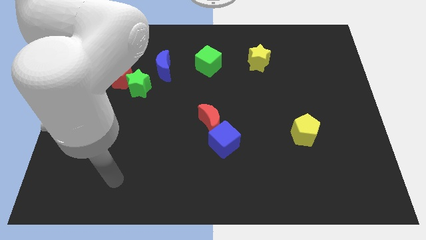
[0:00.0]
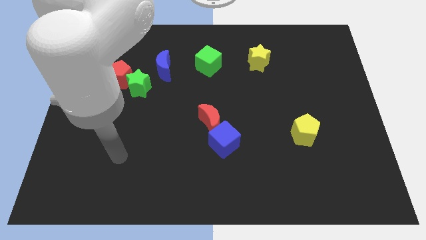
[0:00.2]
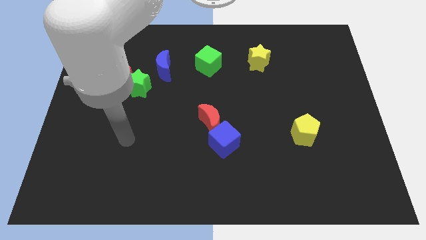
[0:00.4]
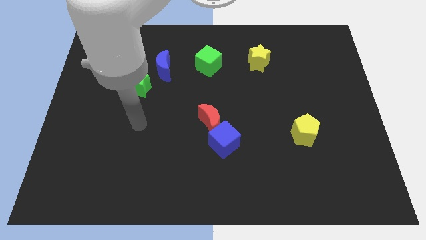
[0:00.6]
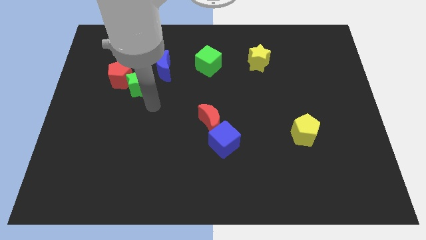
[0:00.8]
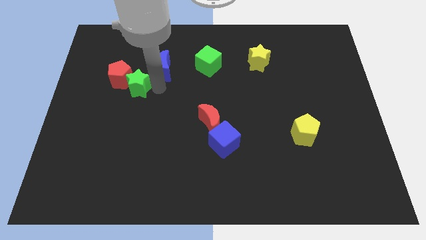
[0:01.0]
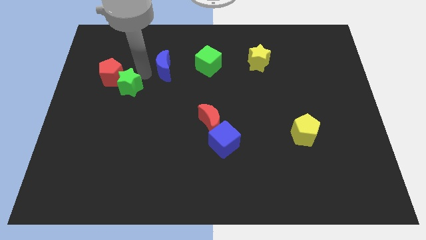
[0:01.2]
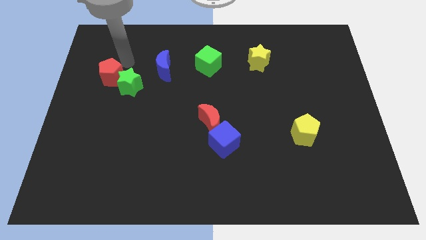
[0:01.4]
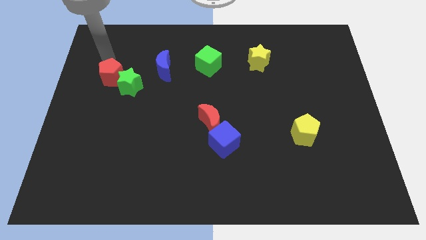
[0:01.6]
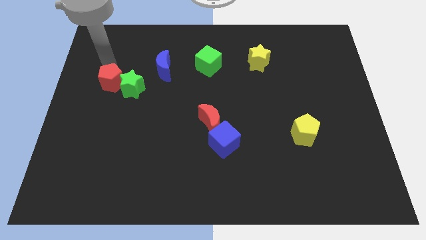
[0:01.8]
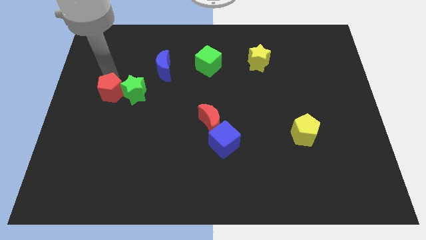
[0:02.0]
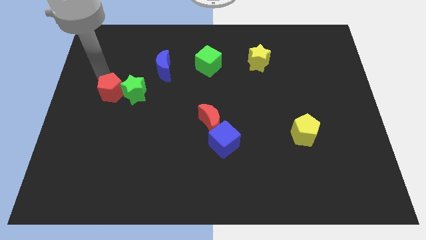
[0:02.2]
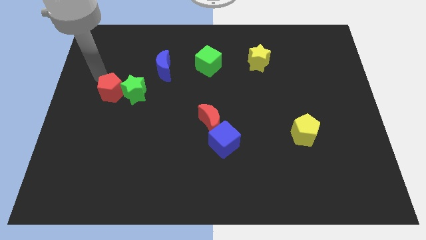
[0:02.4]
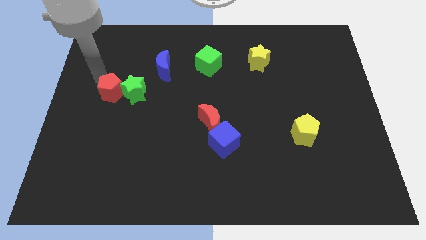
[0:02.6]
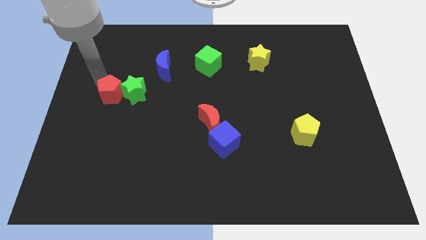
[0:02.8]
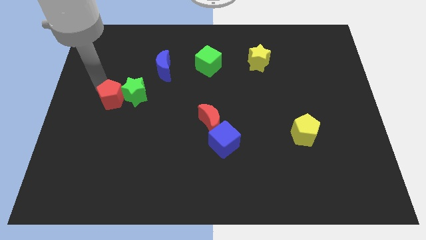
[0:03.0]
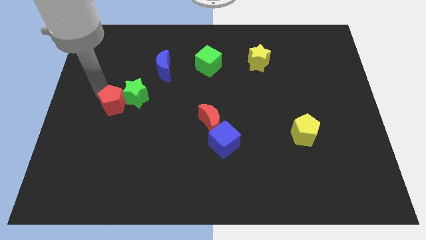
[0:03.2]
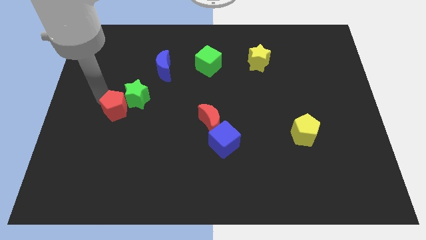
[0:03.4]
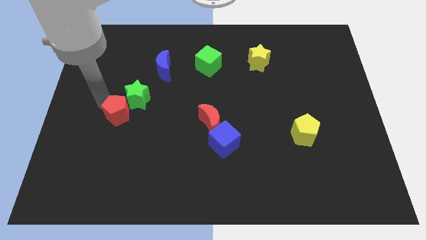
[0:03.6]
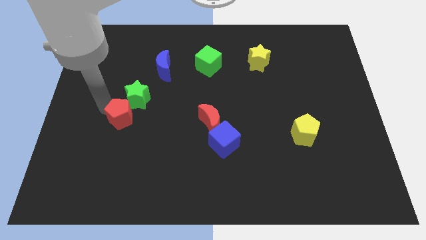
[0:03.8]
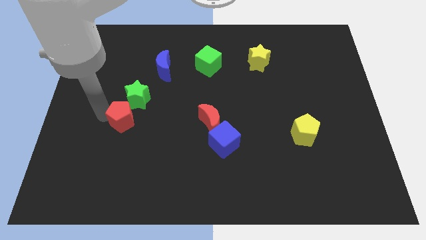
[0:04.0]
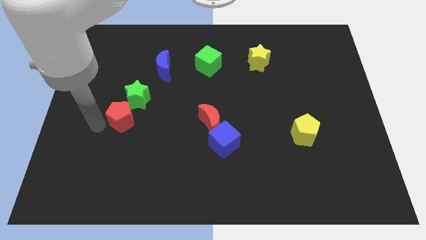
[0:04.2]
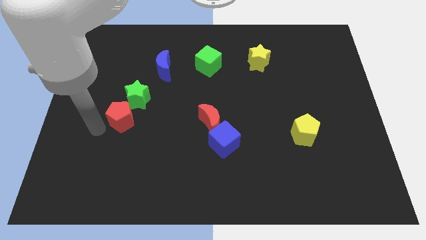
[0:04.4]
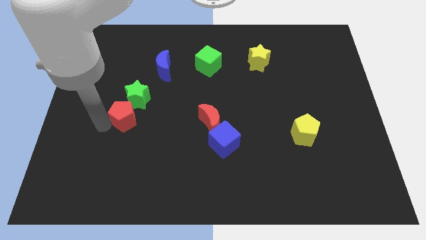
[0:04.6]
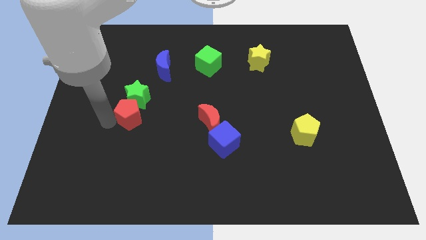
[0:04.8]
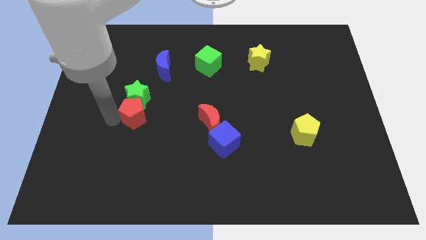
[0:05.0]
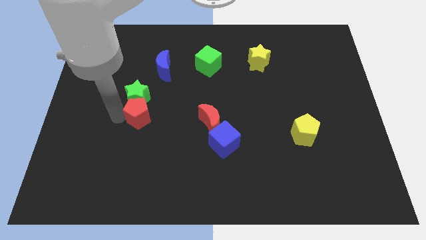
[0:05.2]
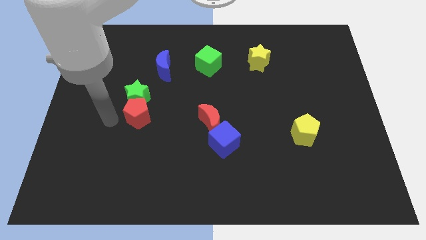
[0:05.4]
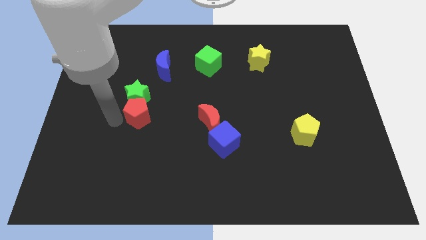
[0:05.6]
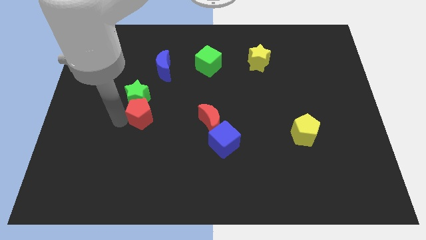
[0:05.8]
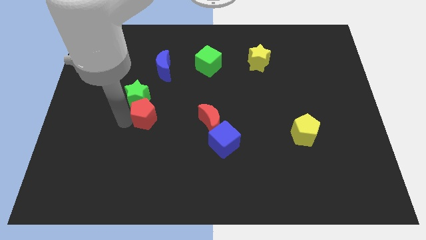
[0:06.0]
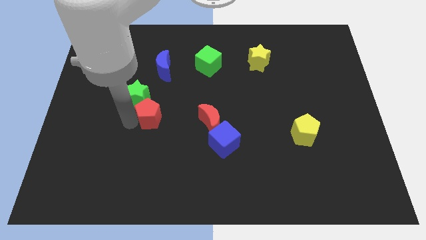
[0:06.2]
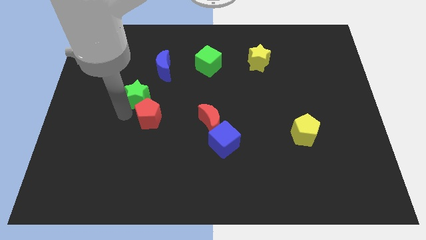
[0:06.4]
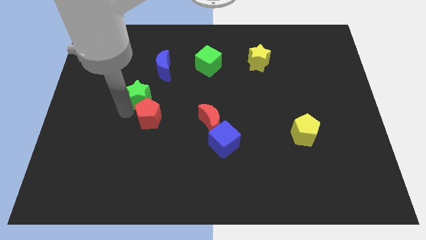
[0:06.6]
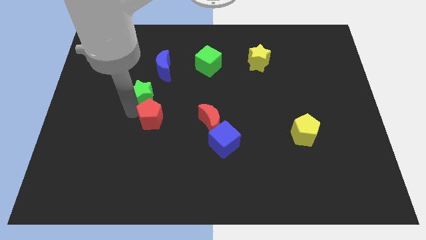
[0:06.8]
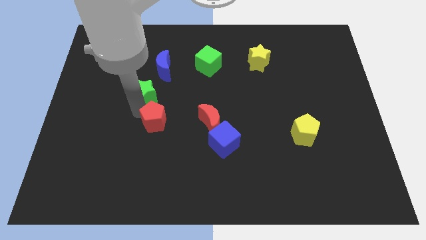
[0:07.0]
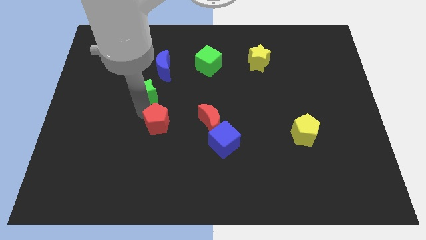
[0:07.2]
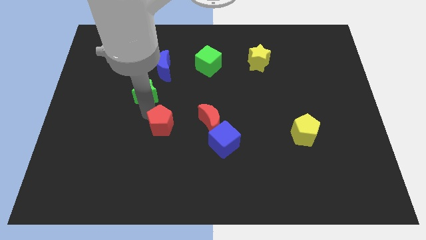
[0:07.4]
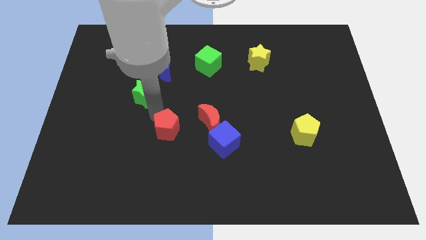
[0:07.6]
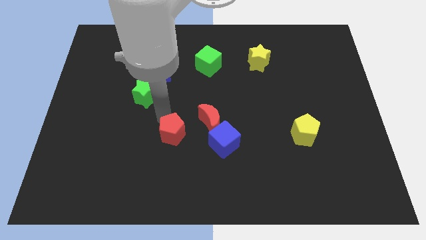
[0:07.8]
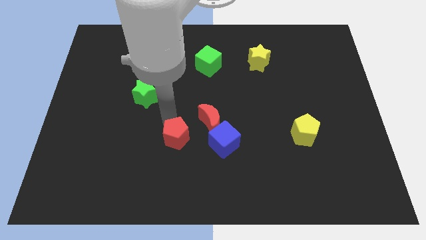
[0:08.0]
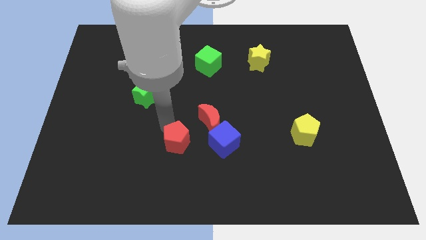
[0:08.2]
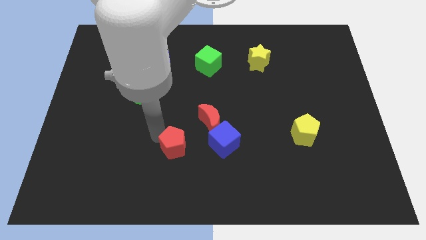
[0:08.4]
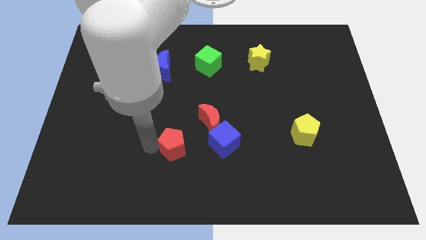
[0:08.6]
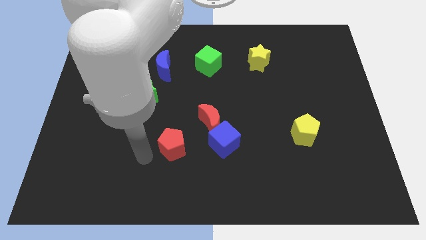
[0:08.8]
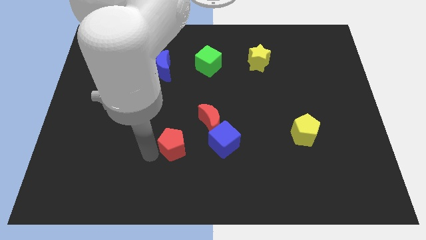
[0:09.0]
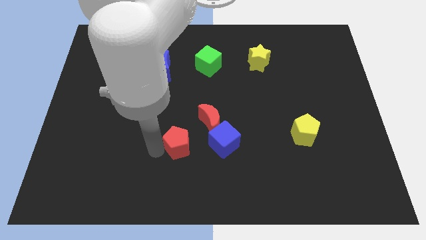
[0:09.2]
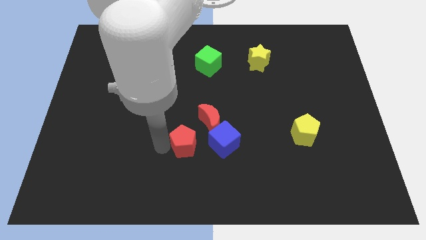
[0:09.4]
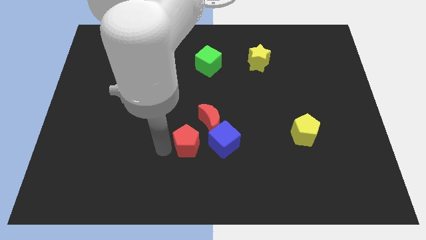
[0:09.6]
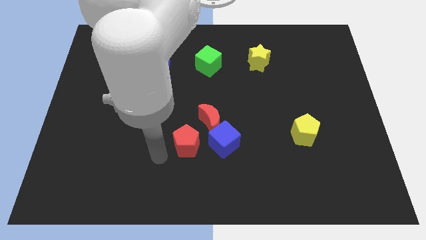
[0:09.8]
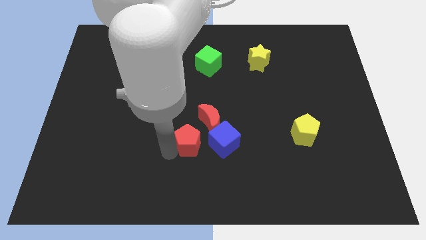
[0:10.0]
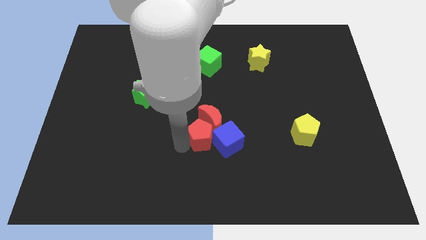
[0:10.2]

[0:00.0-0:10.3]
put the red pentagon to the blue cube

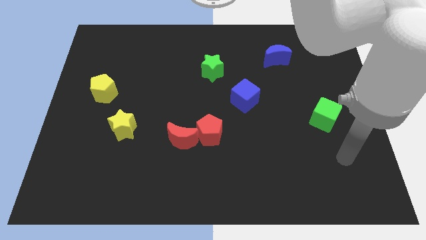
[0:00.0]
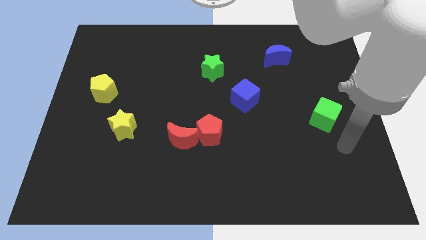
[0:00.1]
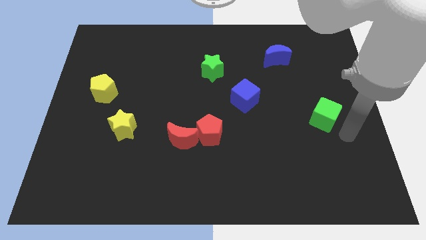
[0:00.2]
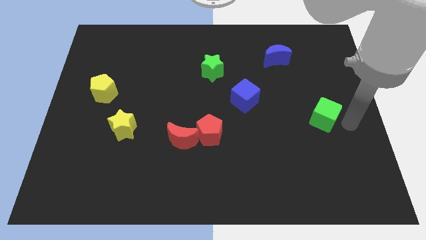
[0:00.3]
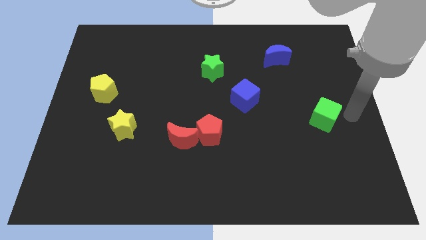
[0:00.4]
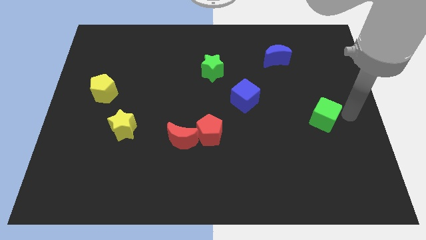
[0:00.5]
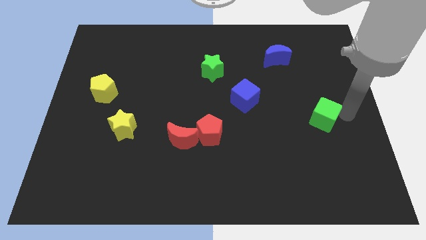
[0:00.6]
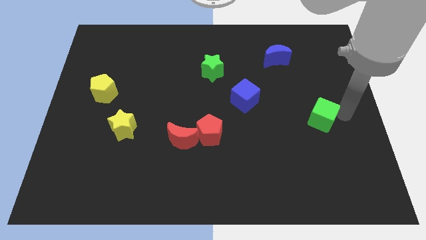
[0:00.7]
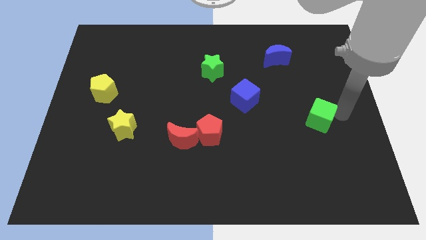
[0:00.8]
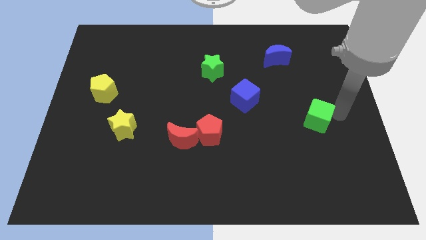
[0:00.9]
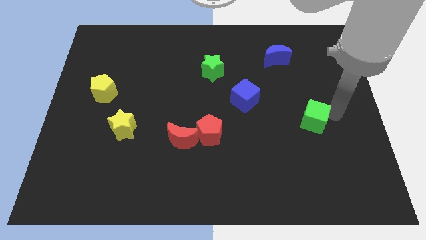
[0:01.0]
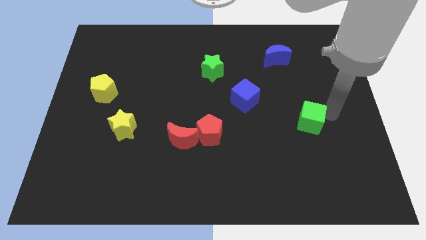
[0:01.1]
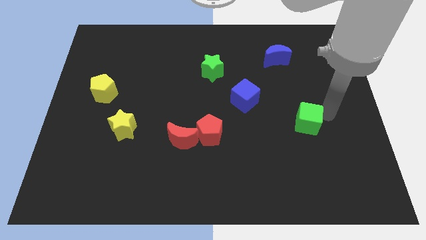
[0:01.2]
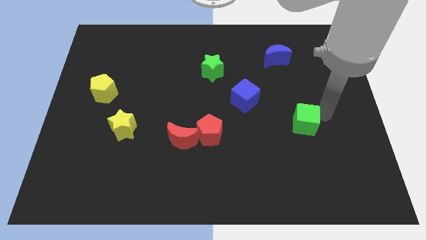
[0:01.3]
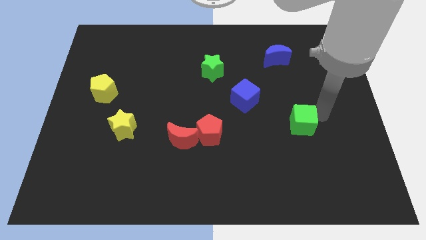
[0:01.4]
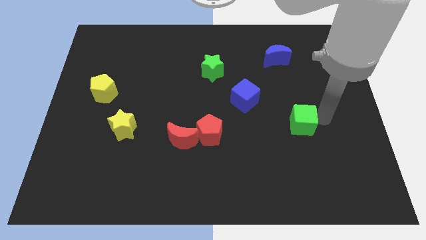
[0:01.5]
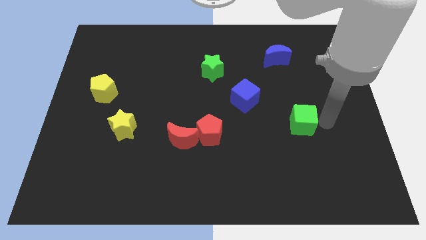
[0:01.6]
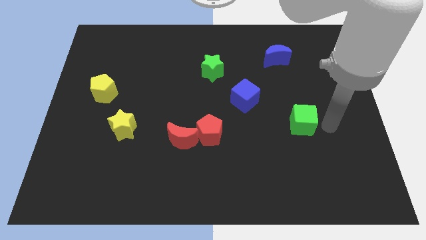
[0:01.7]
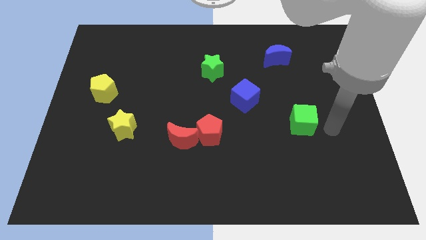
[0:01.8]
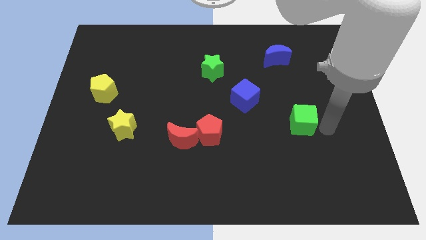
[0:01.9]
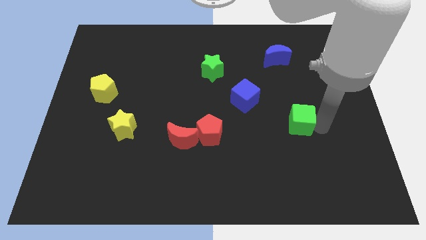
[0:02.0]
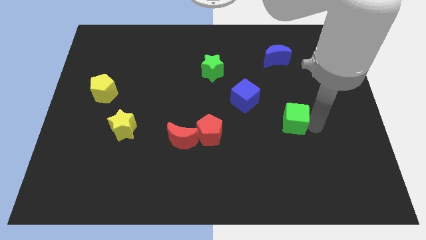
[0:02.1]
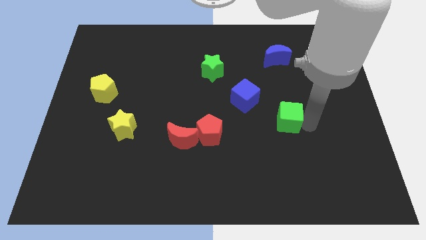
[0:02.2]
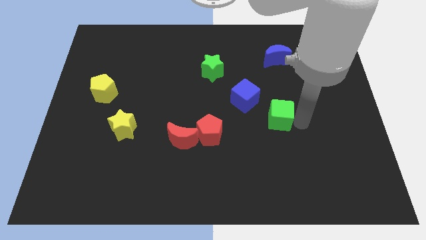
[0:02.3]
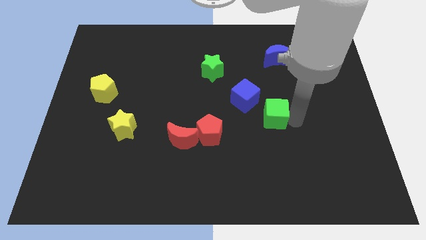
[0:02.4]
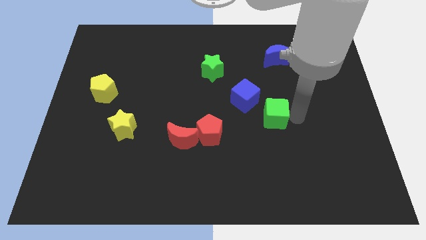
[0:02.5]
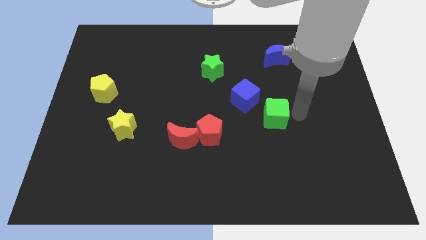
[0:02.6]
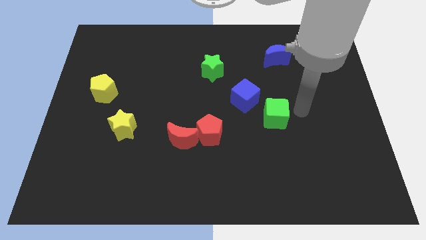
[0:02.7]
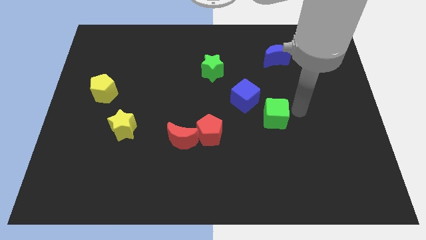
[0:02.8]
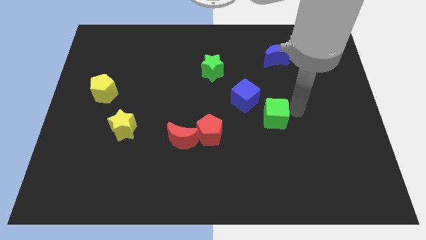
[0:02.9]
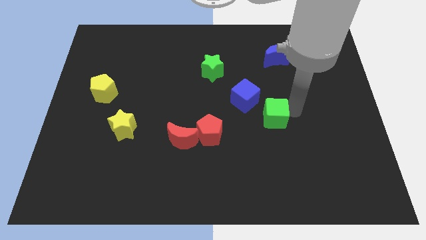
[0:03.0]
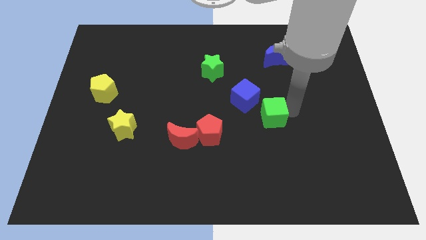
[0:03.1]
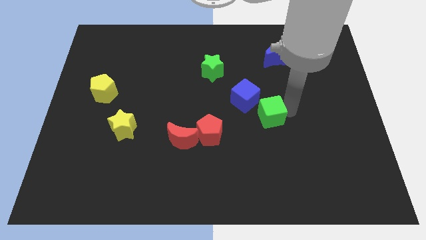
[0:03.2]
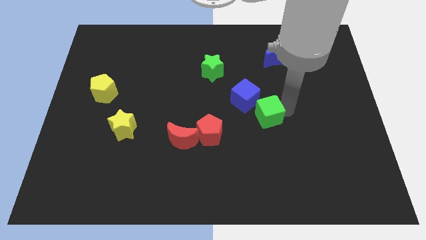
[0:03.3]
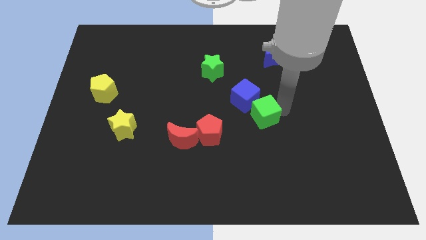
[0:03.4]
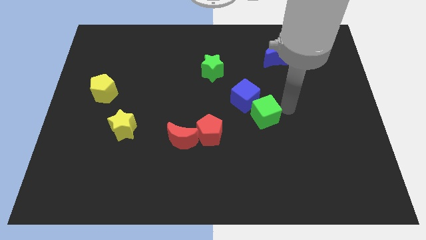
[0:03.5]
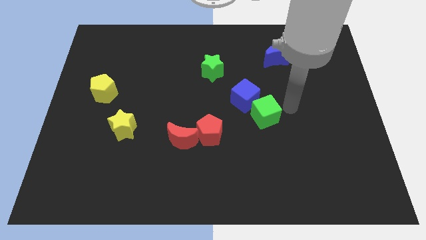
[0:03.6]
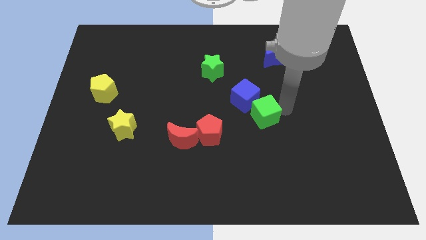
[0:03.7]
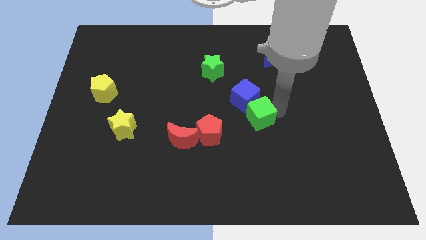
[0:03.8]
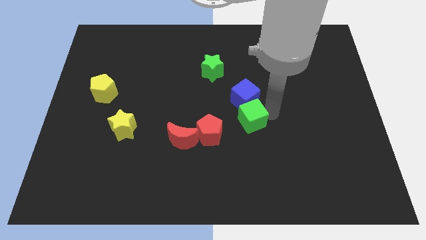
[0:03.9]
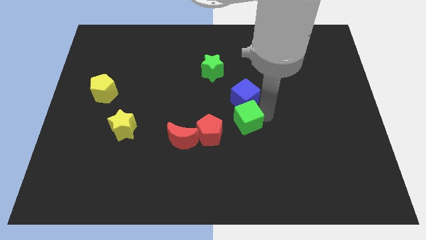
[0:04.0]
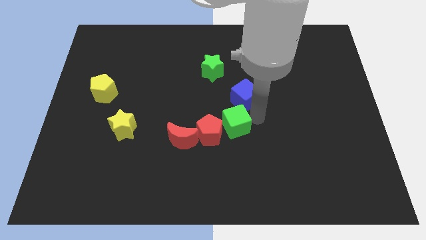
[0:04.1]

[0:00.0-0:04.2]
slide the green cube next to the red pentagon
